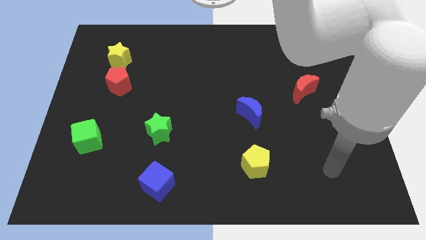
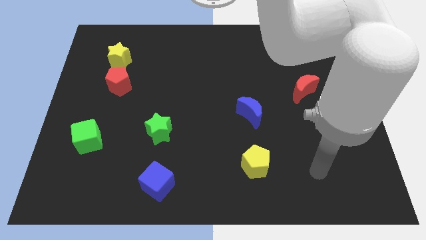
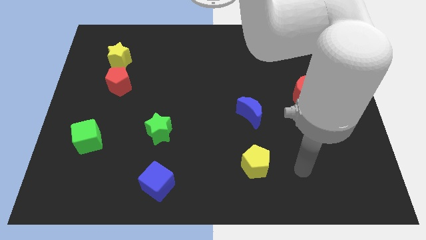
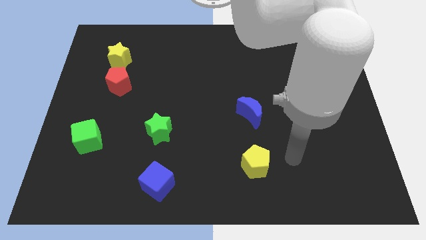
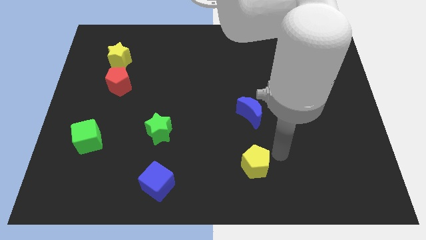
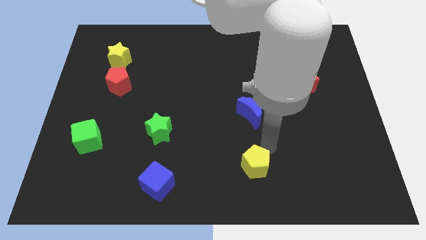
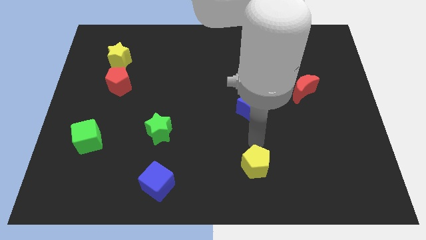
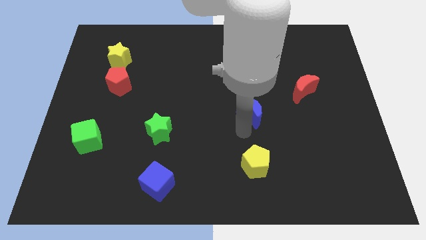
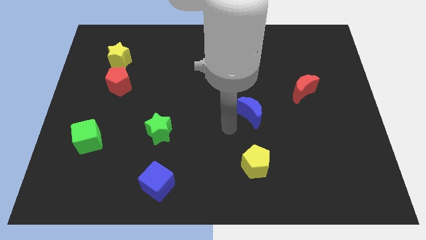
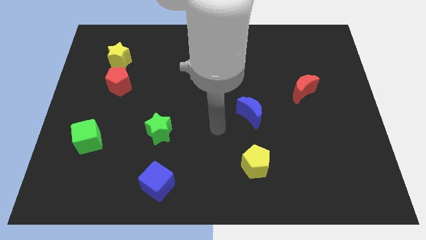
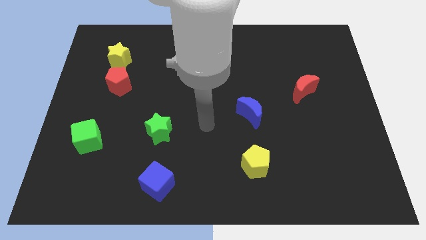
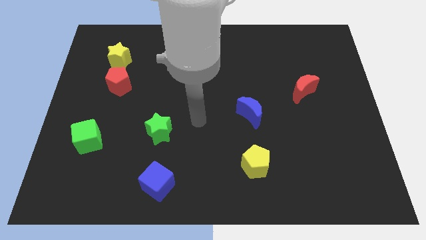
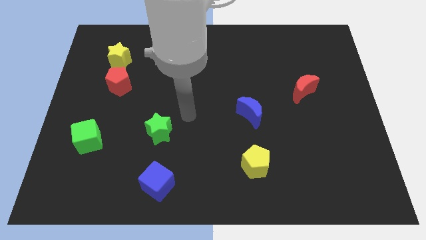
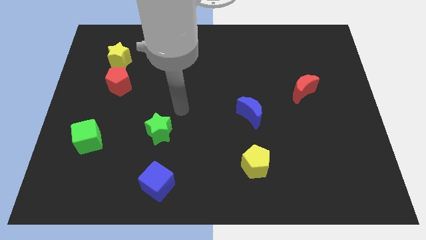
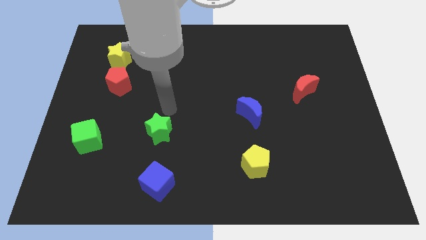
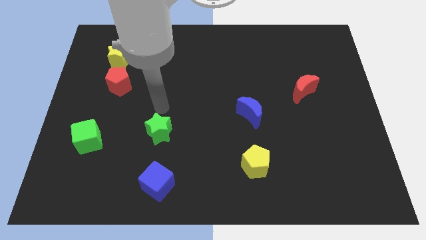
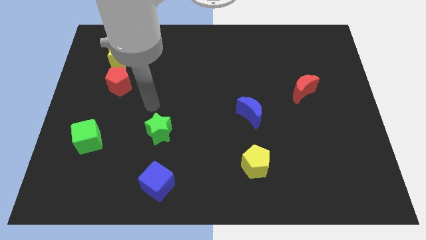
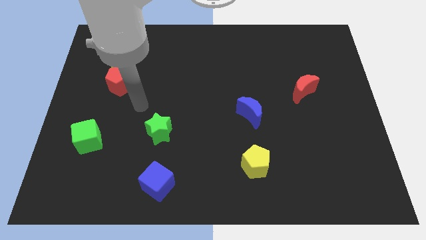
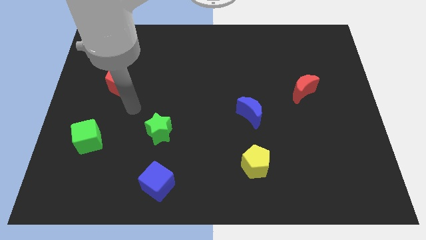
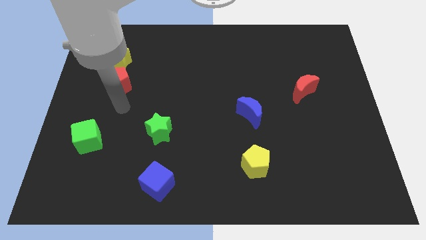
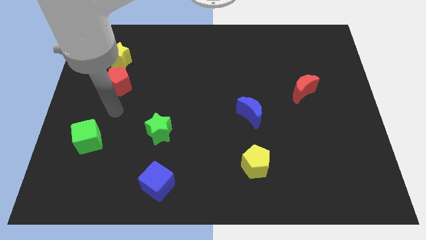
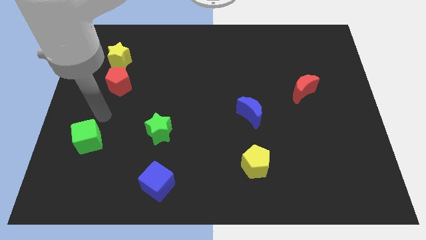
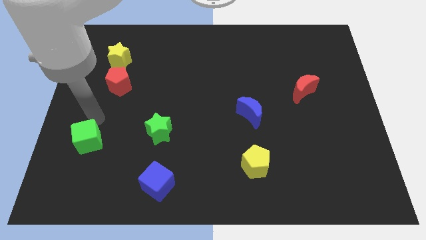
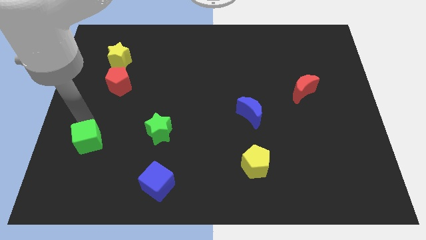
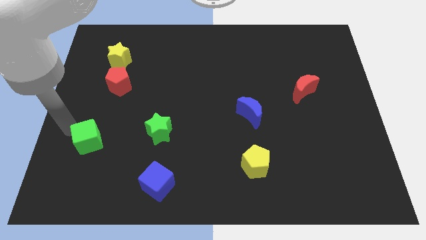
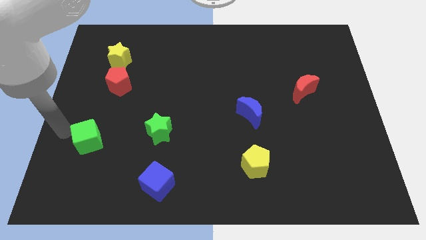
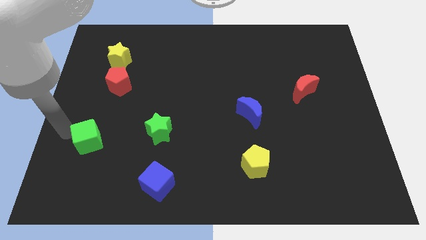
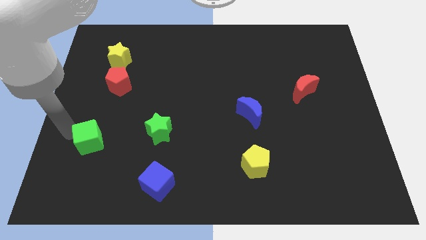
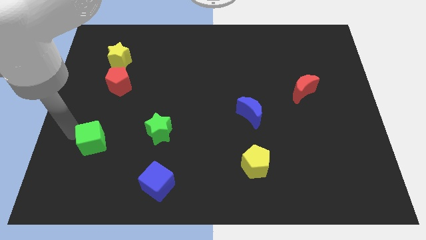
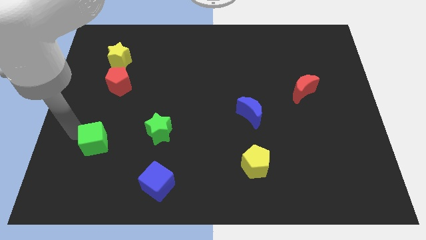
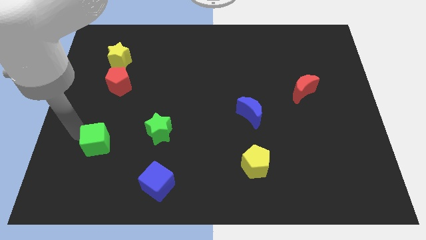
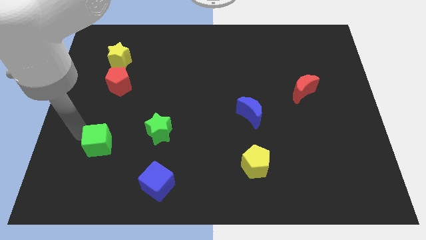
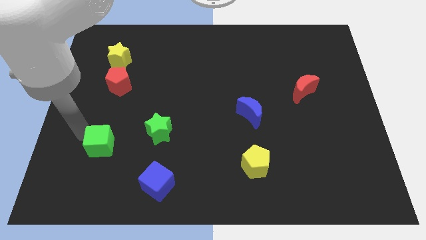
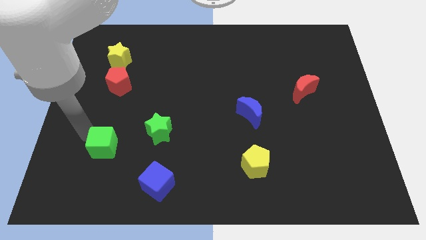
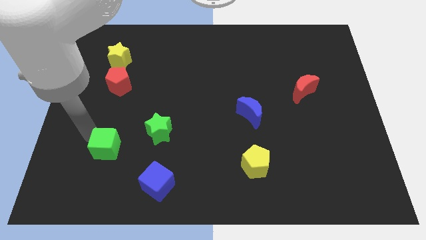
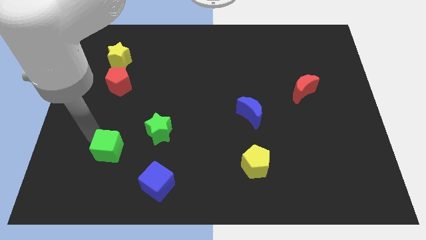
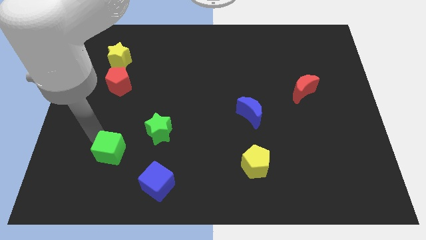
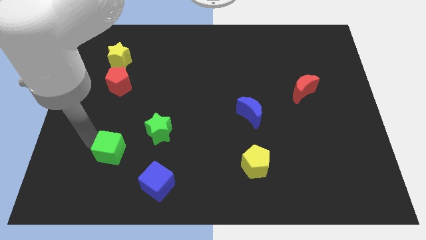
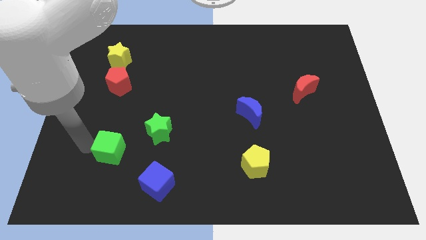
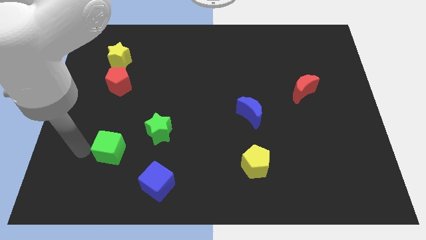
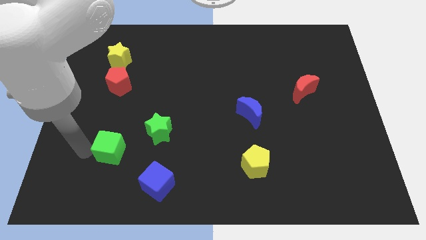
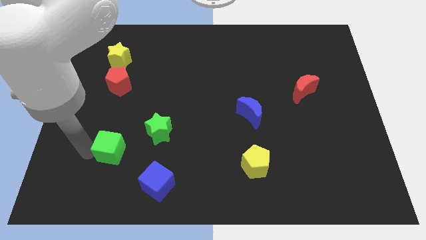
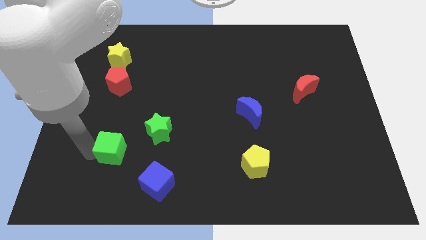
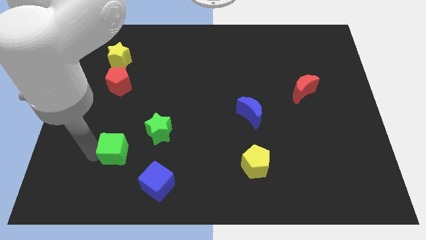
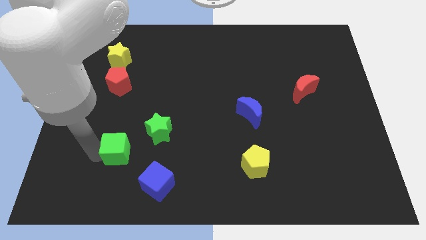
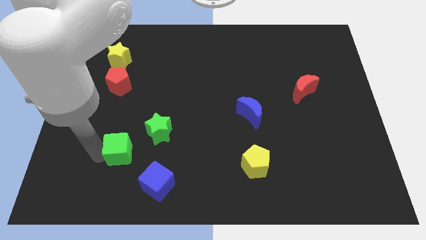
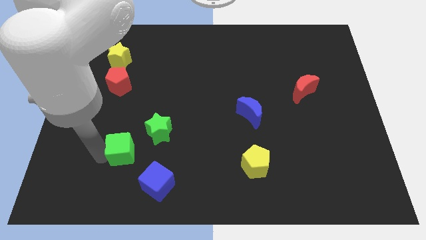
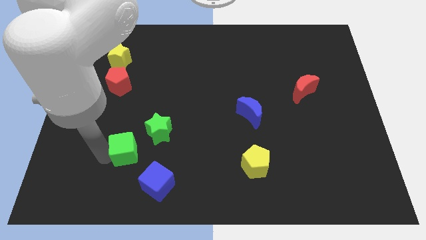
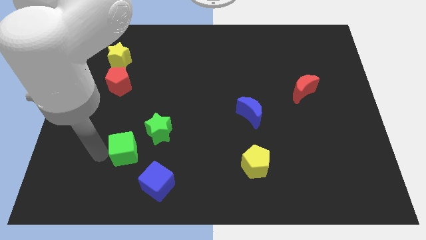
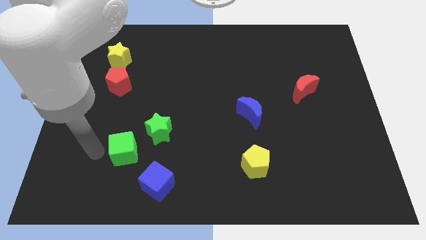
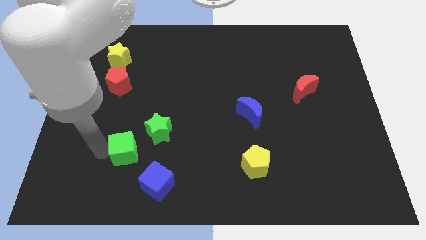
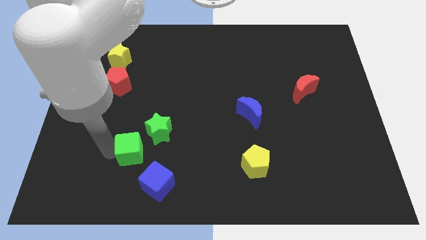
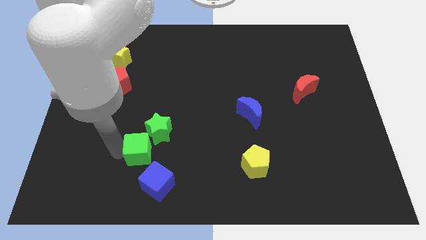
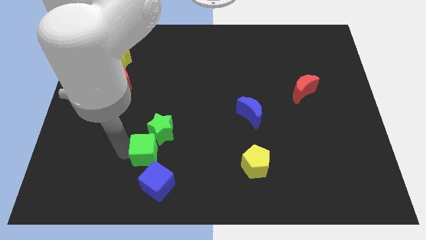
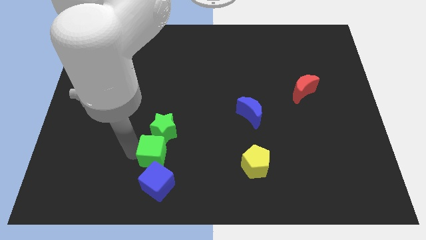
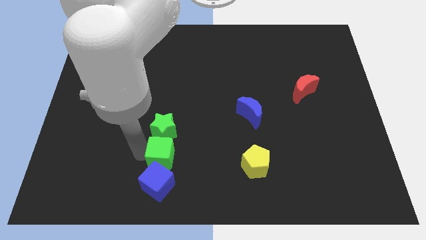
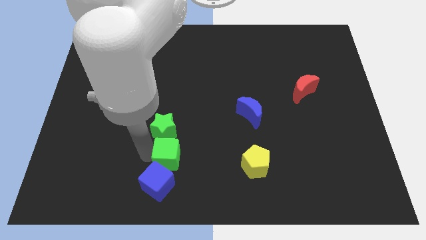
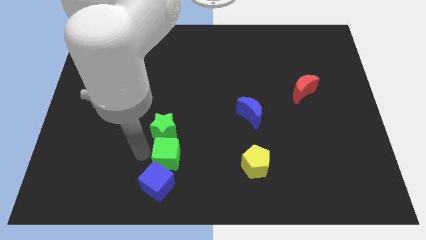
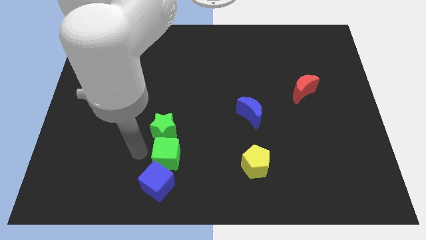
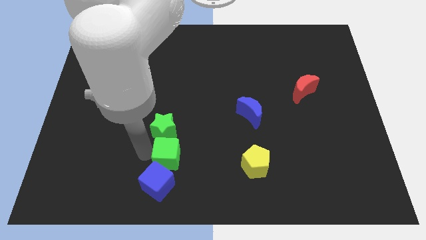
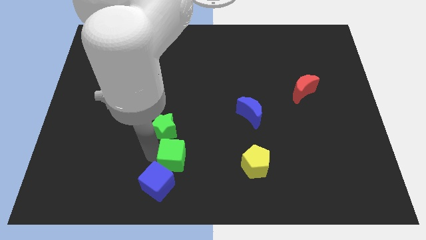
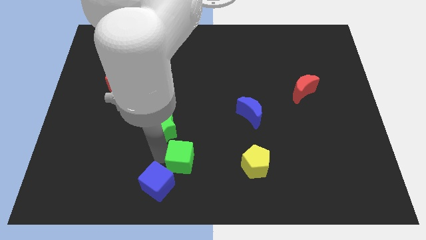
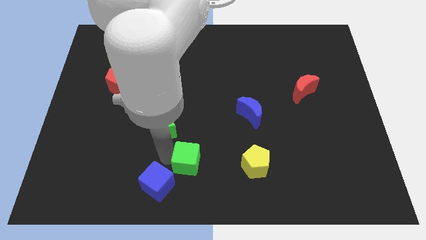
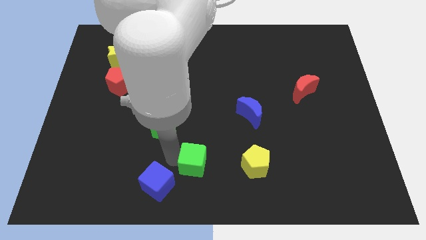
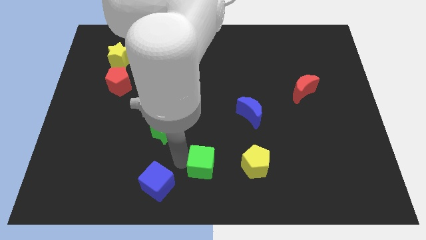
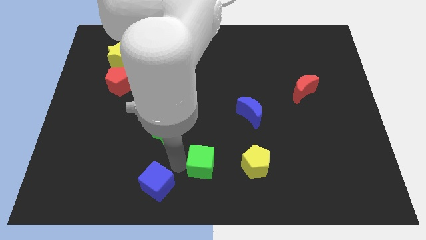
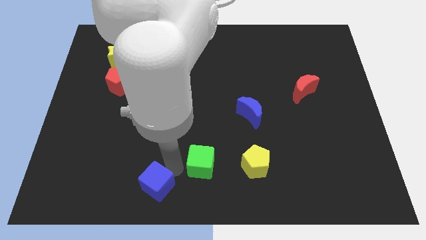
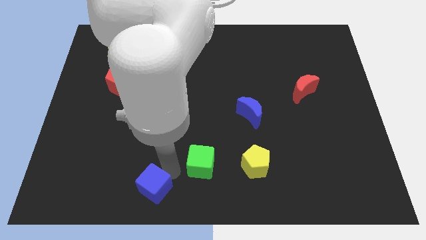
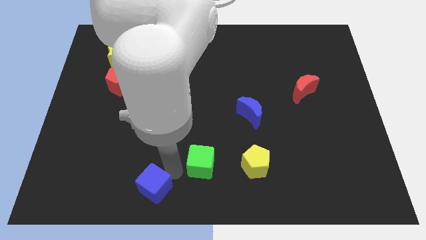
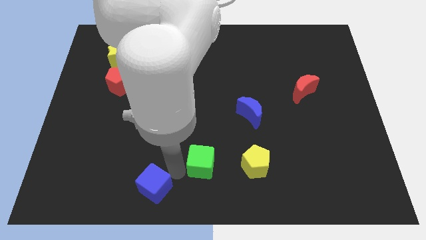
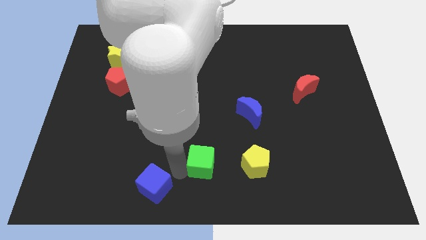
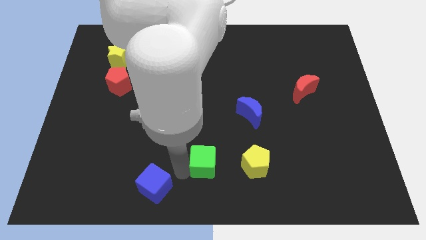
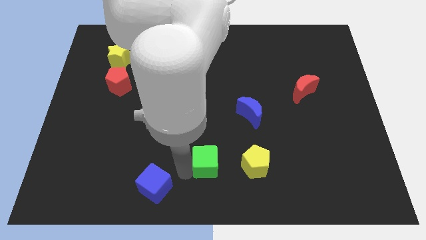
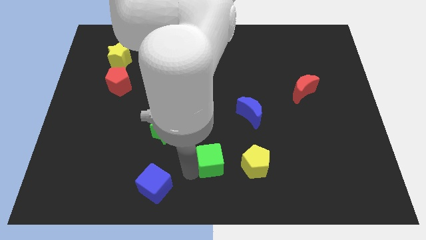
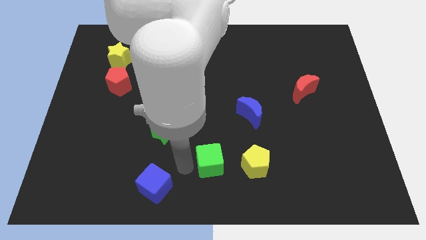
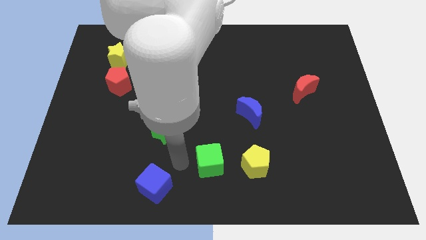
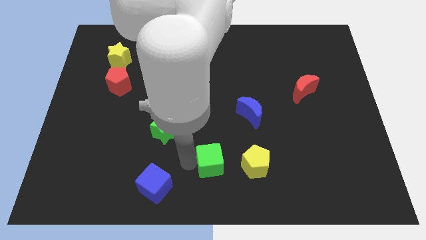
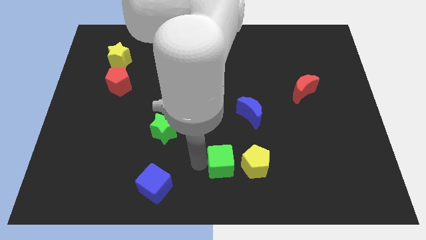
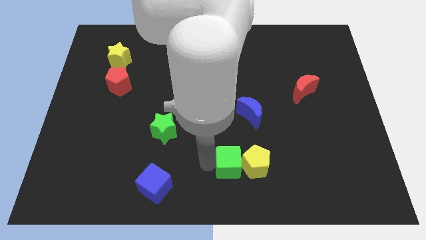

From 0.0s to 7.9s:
move the green cube to the yellow pentagon
